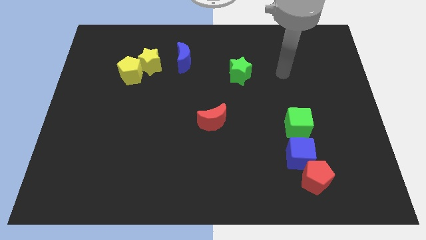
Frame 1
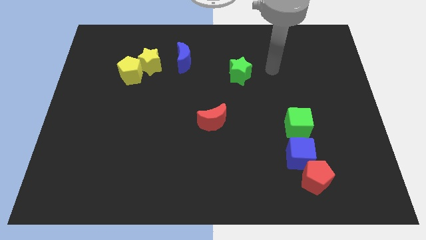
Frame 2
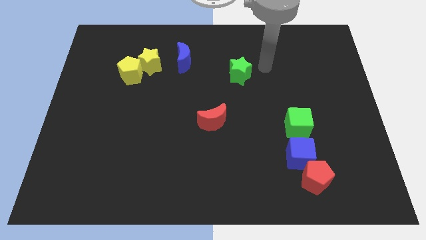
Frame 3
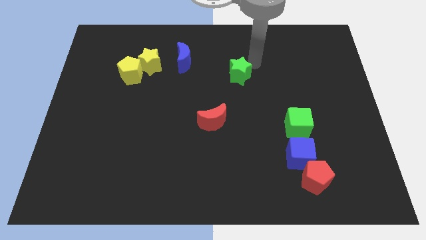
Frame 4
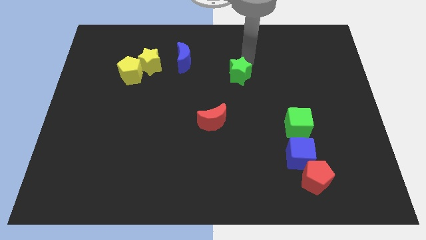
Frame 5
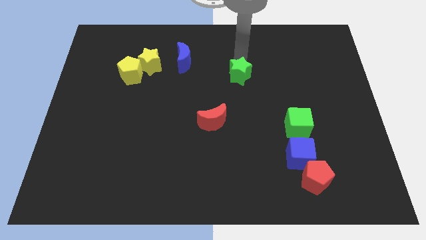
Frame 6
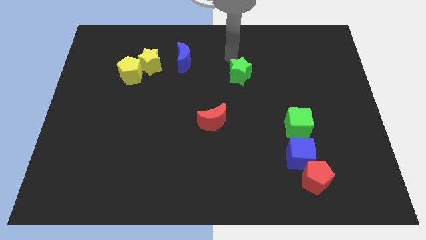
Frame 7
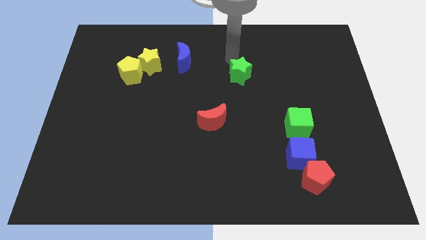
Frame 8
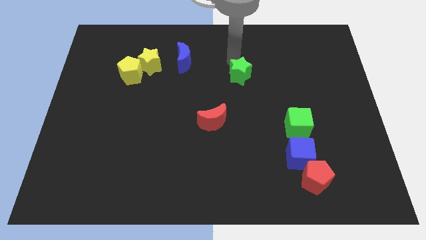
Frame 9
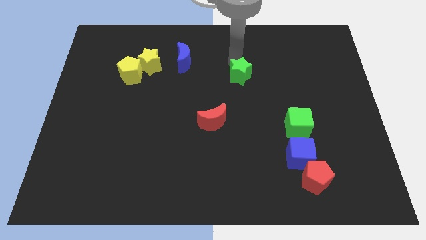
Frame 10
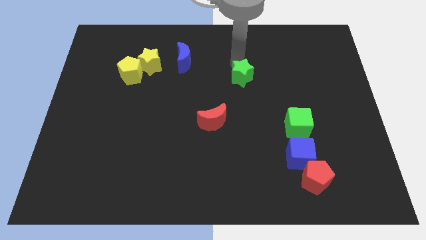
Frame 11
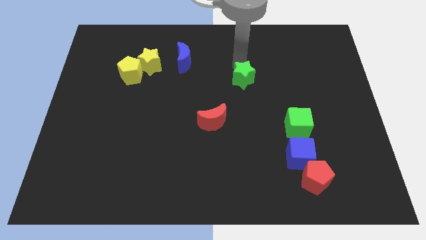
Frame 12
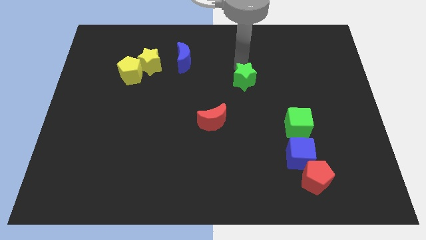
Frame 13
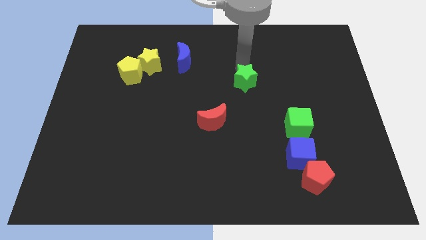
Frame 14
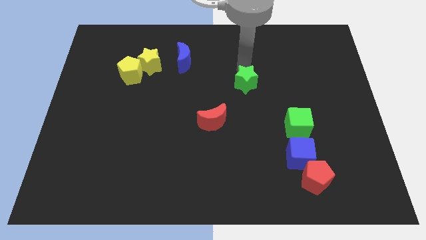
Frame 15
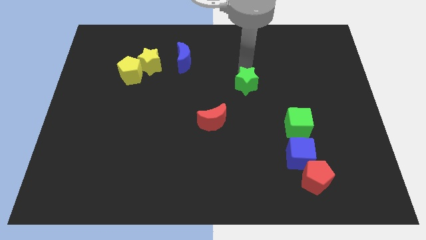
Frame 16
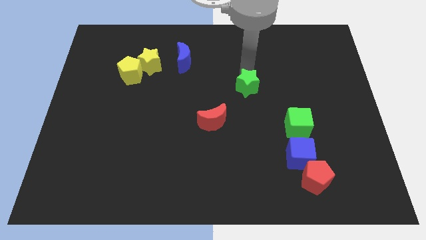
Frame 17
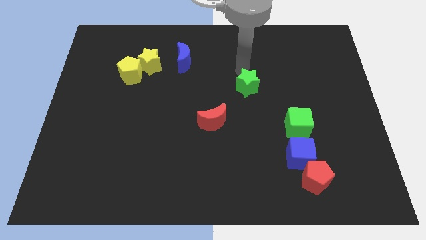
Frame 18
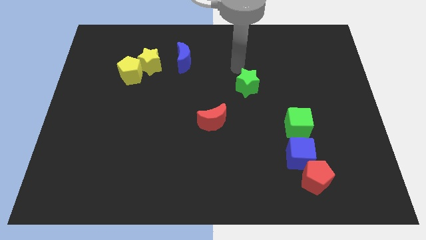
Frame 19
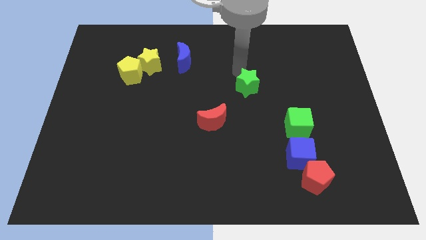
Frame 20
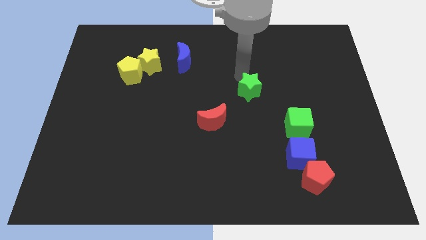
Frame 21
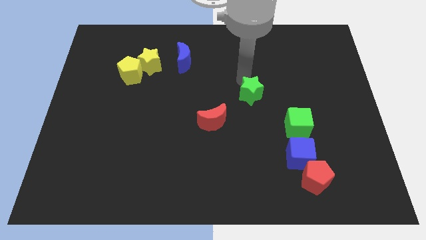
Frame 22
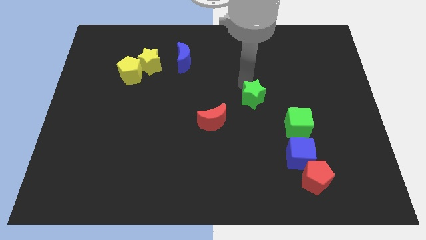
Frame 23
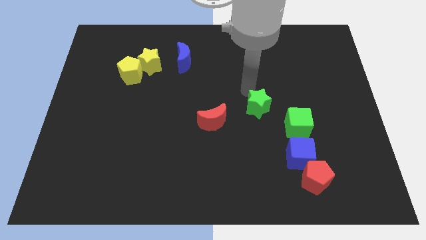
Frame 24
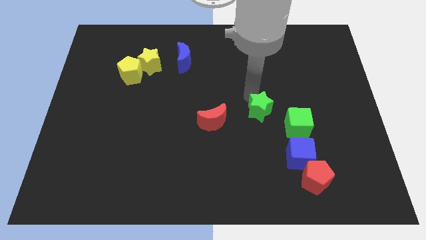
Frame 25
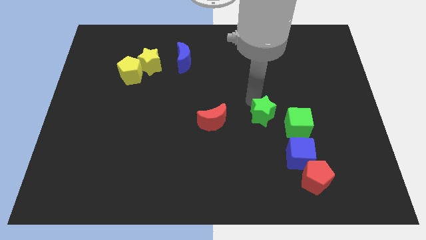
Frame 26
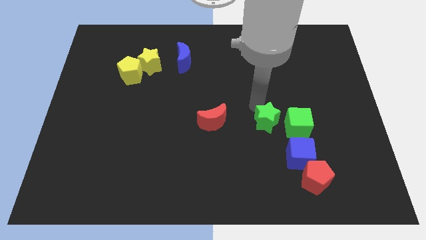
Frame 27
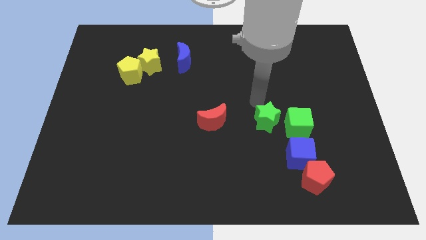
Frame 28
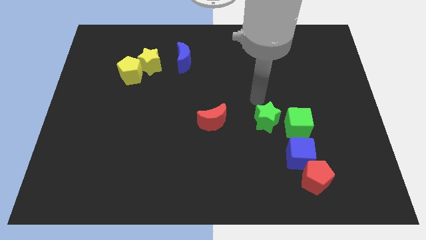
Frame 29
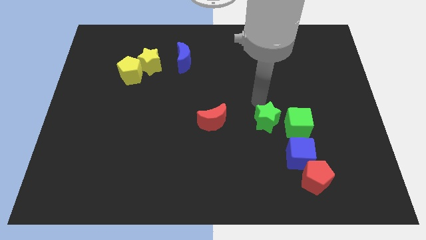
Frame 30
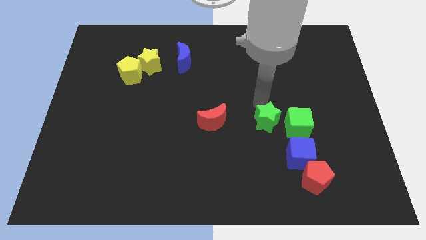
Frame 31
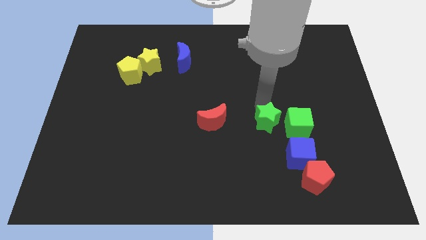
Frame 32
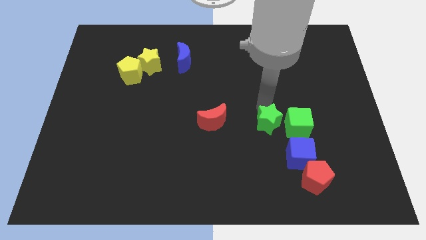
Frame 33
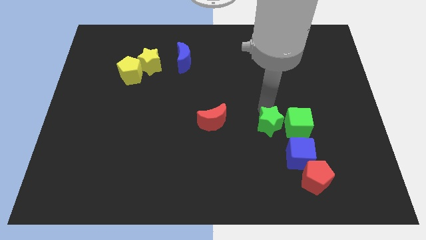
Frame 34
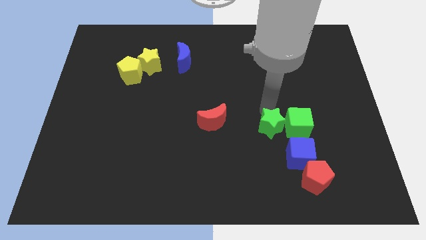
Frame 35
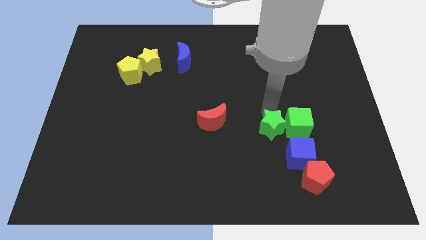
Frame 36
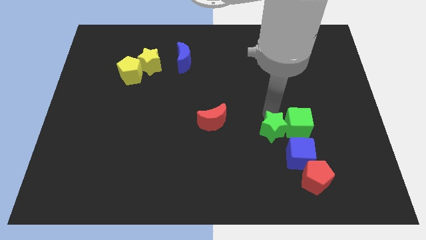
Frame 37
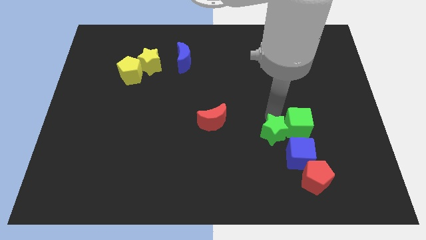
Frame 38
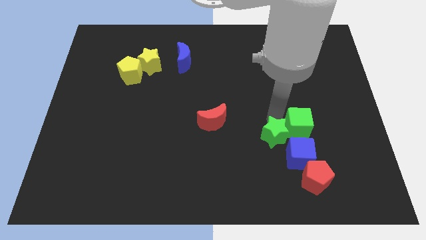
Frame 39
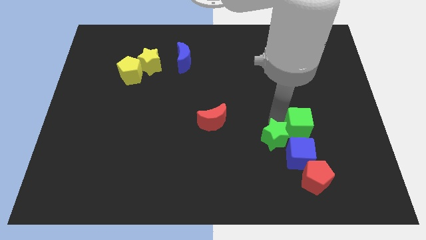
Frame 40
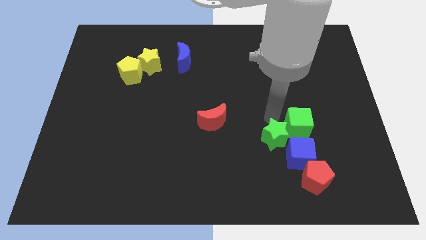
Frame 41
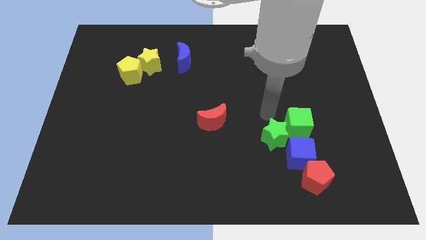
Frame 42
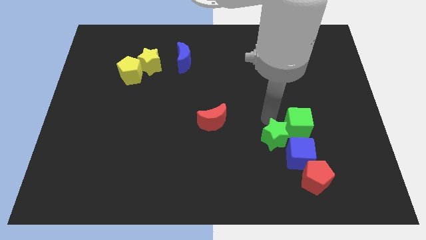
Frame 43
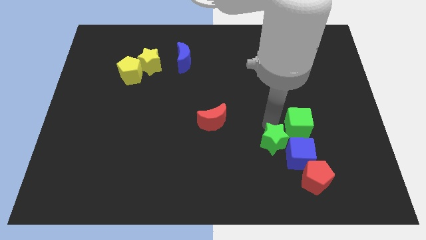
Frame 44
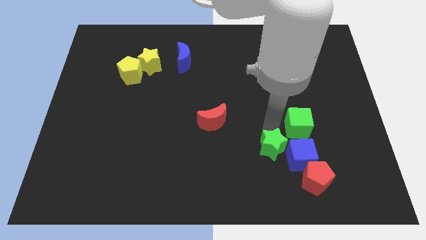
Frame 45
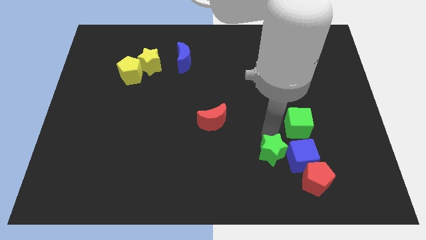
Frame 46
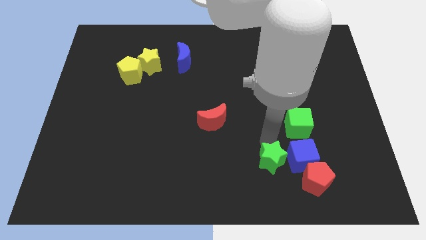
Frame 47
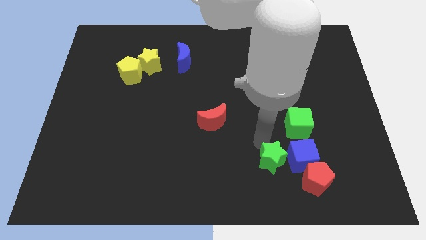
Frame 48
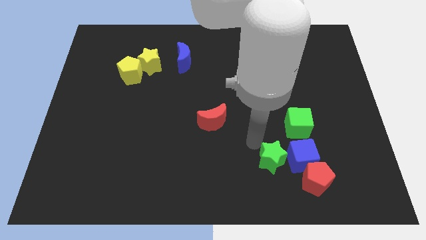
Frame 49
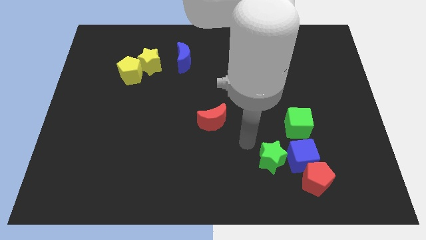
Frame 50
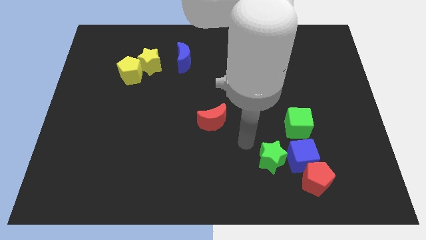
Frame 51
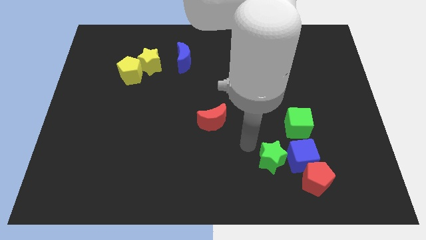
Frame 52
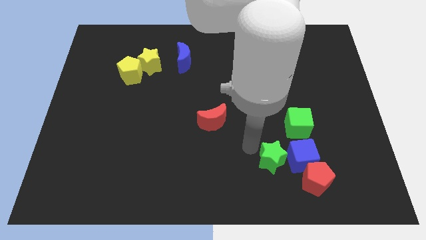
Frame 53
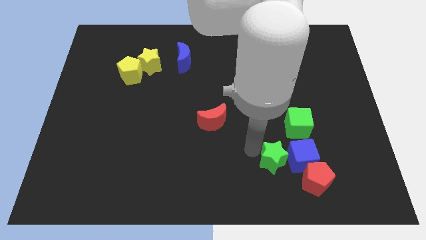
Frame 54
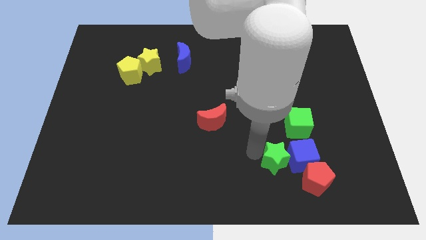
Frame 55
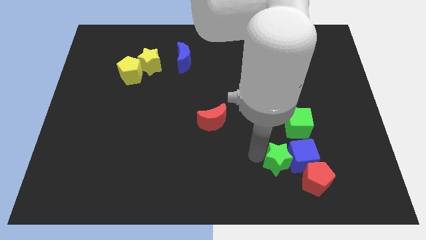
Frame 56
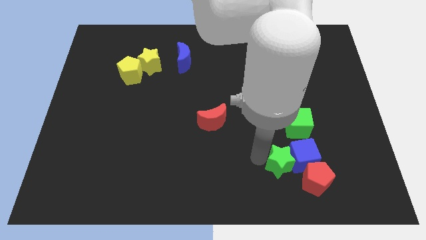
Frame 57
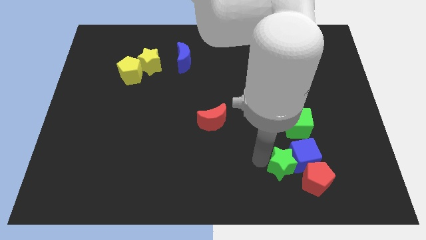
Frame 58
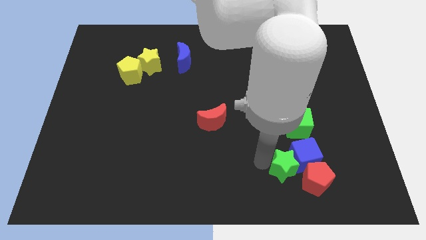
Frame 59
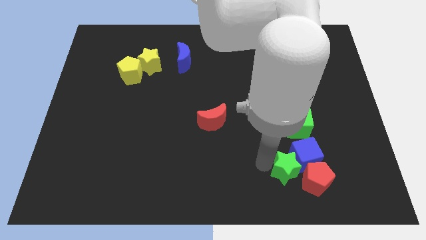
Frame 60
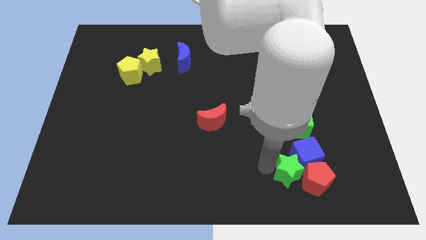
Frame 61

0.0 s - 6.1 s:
push the green star towards the red pentagon

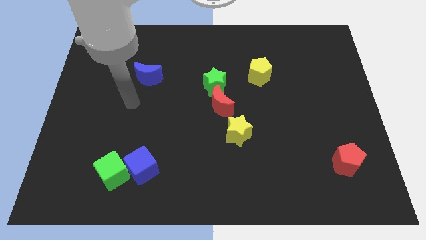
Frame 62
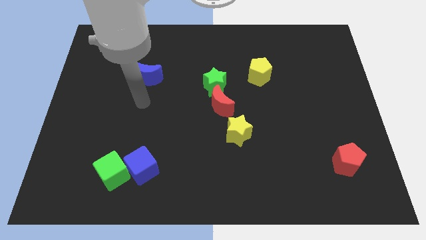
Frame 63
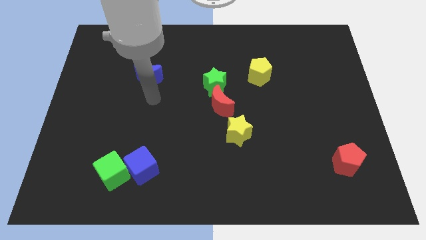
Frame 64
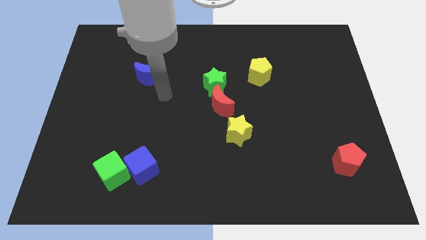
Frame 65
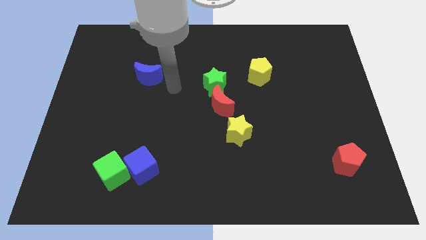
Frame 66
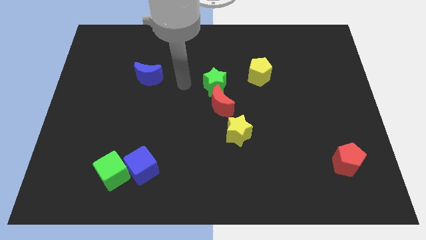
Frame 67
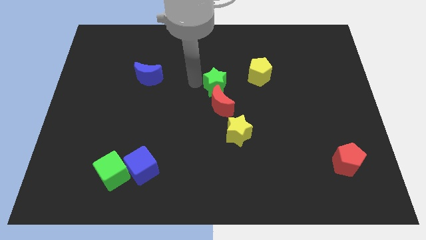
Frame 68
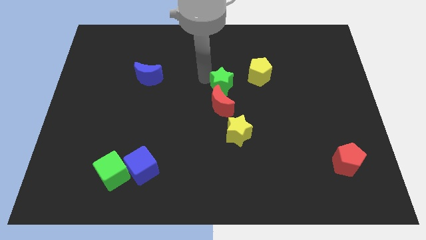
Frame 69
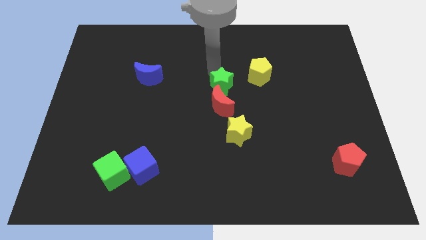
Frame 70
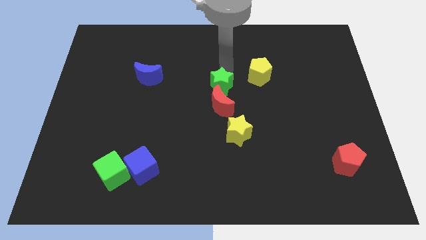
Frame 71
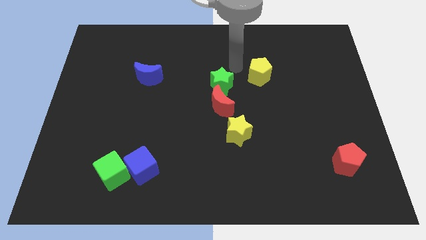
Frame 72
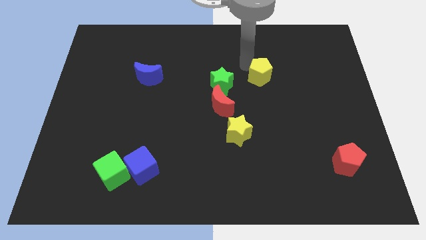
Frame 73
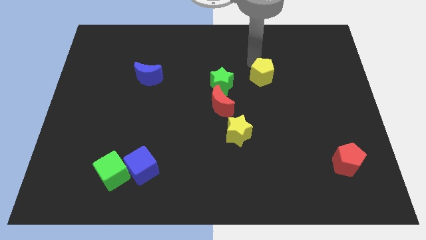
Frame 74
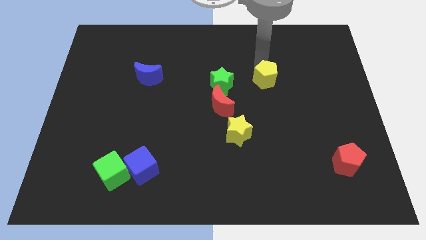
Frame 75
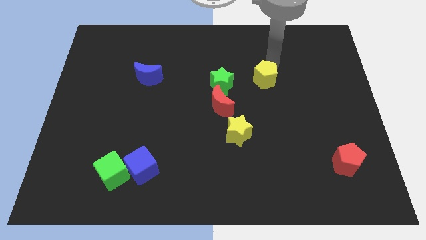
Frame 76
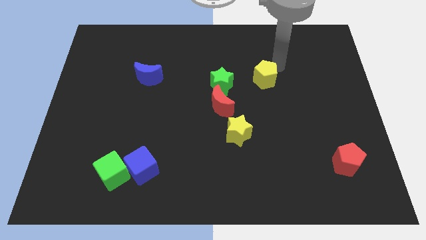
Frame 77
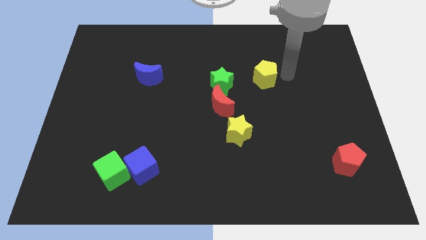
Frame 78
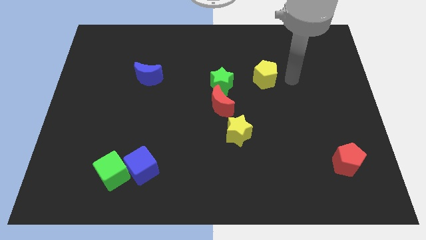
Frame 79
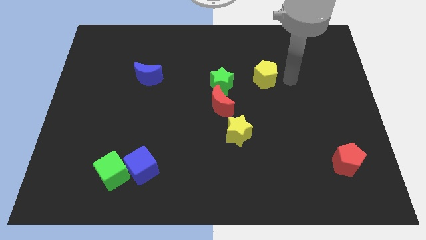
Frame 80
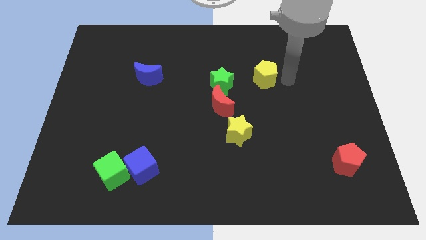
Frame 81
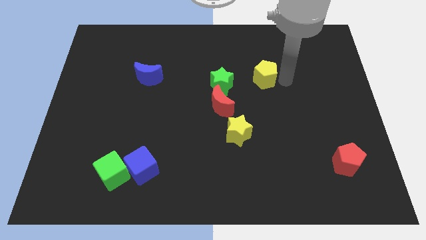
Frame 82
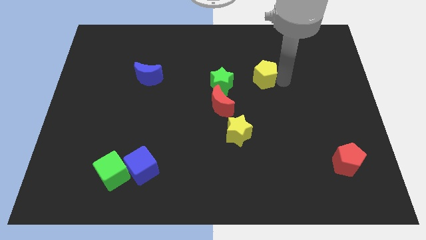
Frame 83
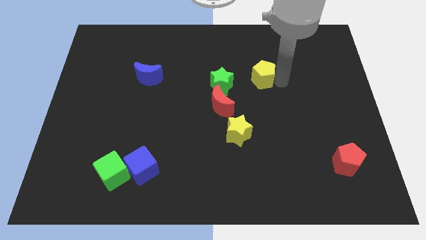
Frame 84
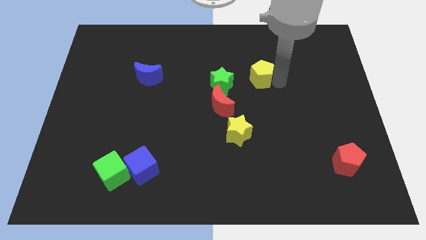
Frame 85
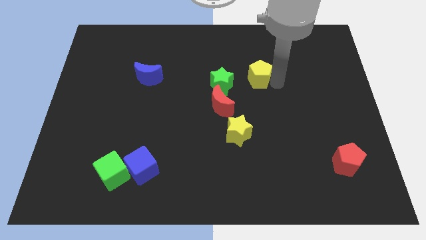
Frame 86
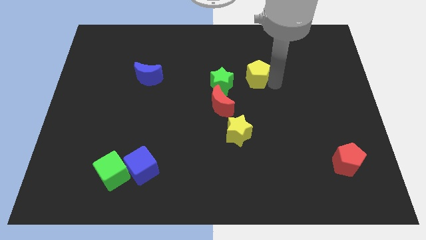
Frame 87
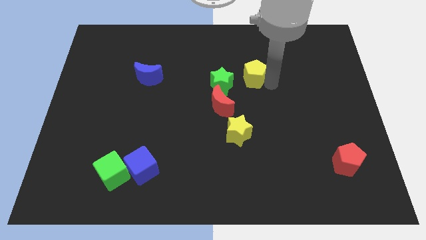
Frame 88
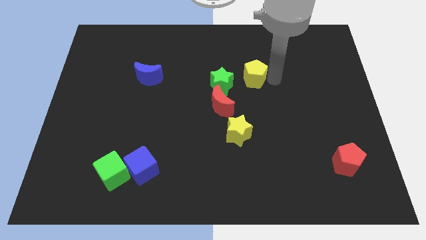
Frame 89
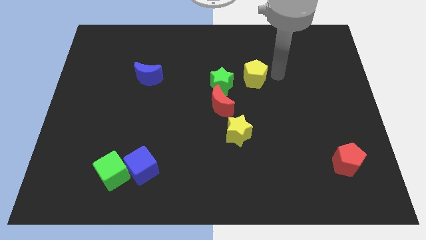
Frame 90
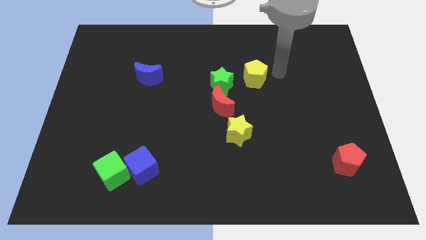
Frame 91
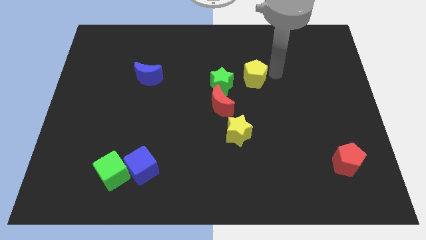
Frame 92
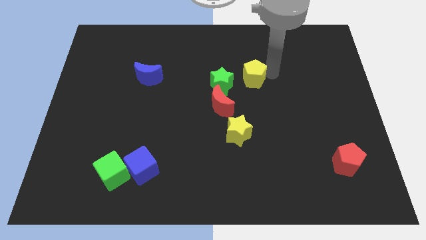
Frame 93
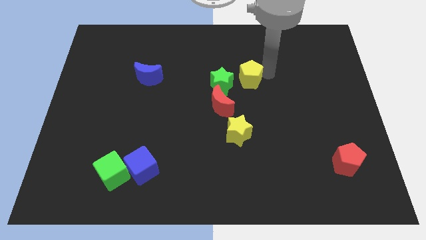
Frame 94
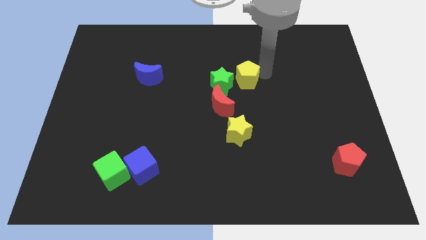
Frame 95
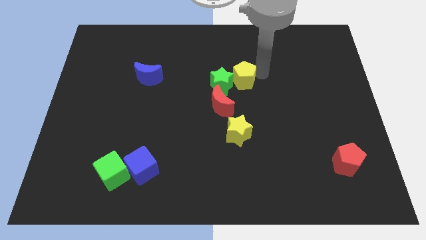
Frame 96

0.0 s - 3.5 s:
push the yellow pentagon next to the green star
